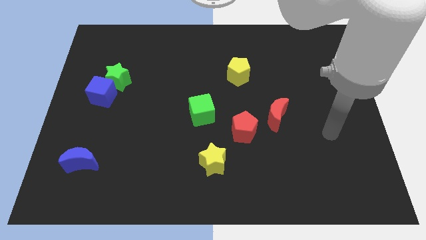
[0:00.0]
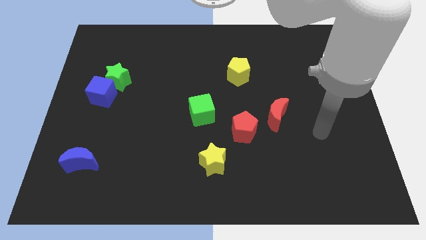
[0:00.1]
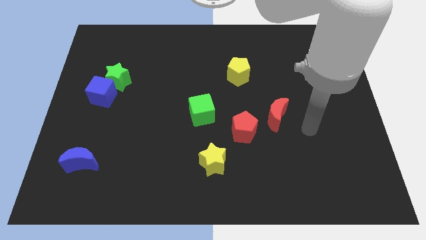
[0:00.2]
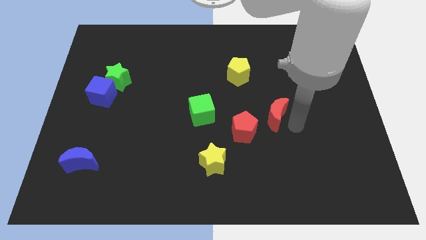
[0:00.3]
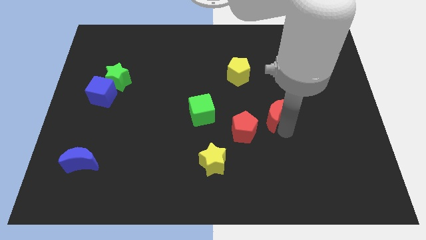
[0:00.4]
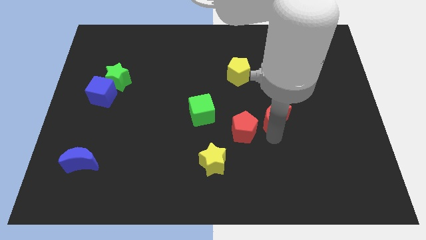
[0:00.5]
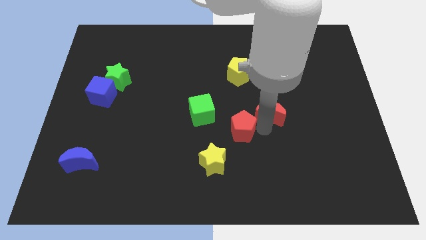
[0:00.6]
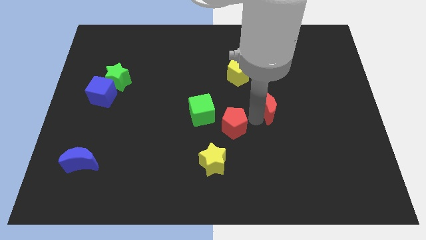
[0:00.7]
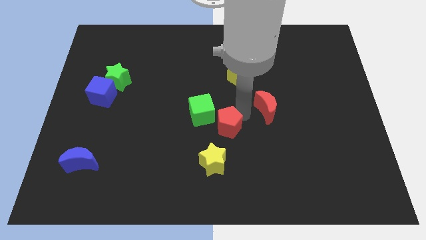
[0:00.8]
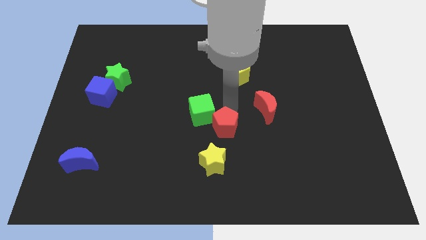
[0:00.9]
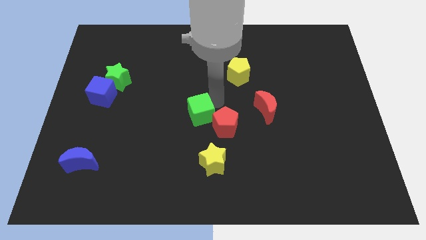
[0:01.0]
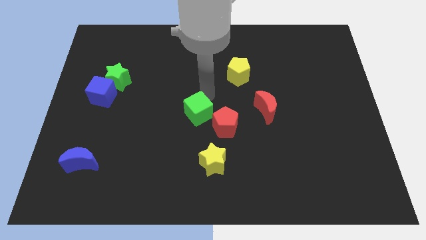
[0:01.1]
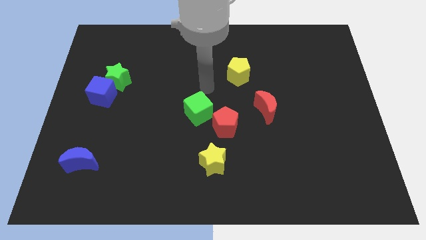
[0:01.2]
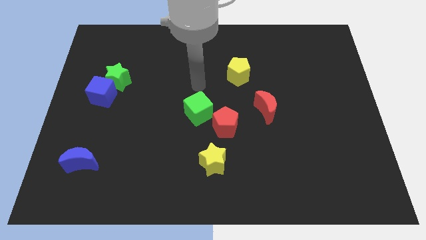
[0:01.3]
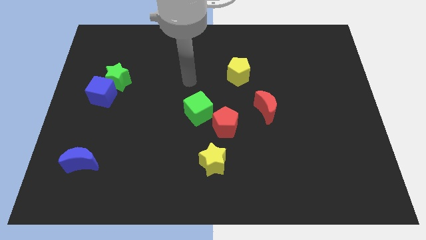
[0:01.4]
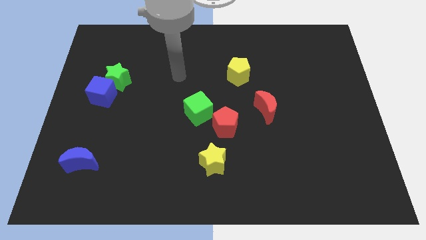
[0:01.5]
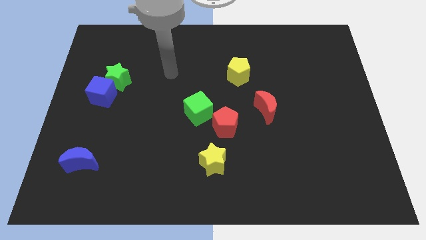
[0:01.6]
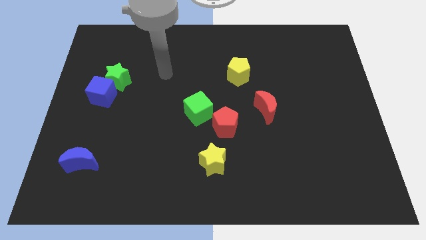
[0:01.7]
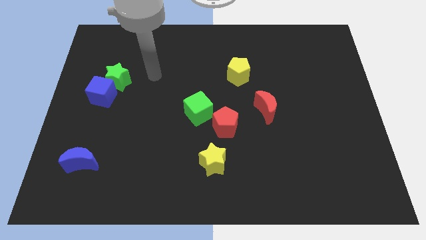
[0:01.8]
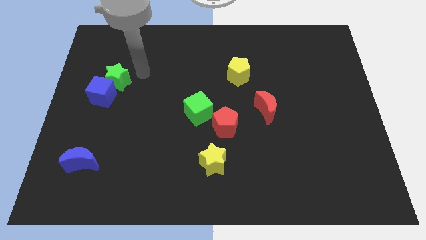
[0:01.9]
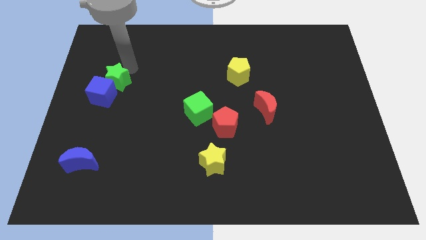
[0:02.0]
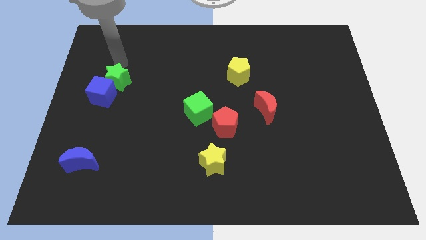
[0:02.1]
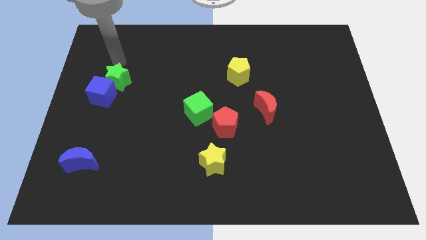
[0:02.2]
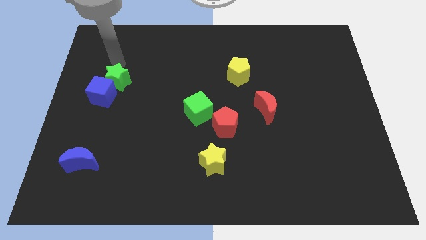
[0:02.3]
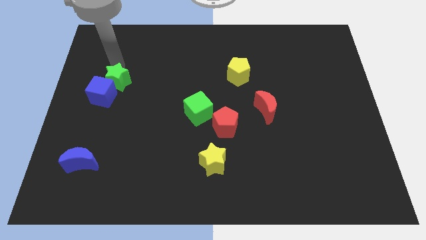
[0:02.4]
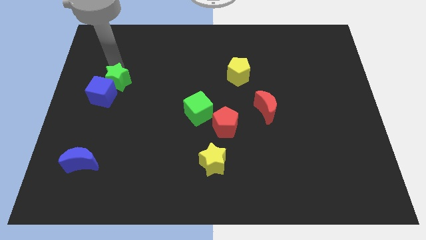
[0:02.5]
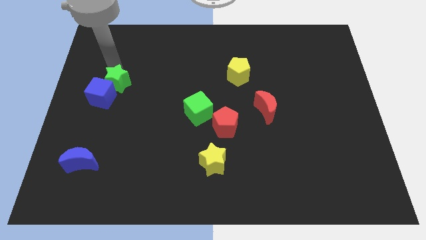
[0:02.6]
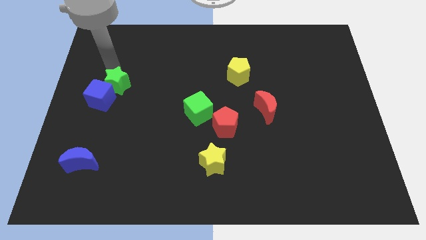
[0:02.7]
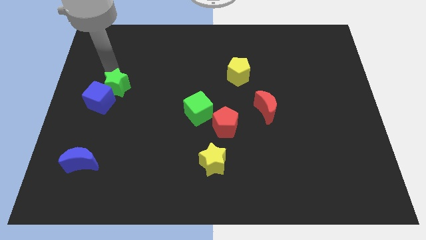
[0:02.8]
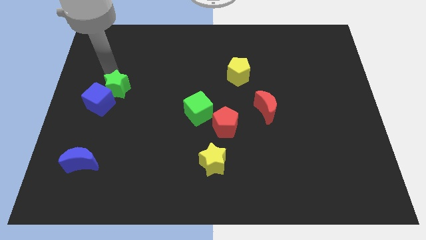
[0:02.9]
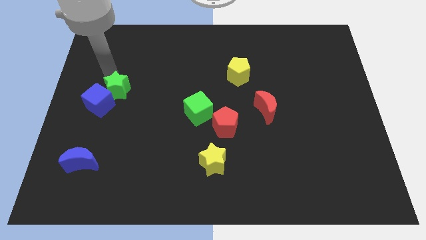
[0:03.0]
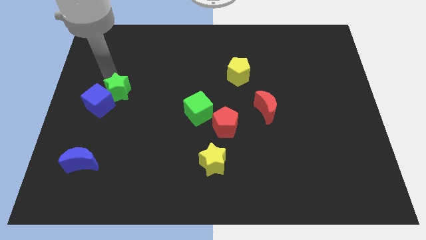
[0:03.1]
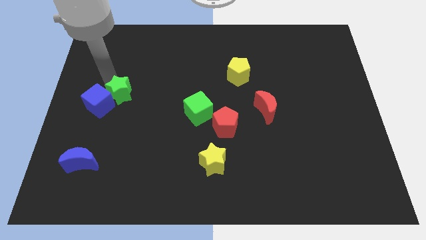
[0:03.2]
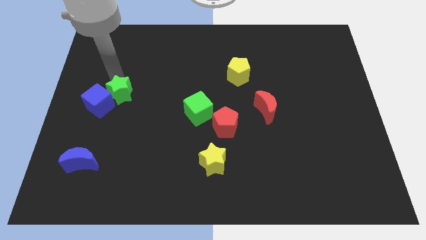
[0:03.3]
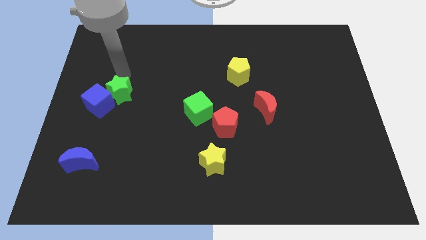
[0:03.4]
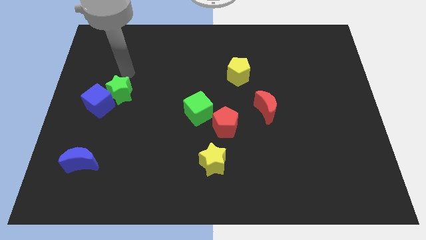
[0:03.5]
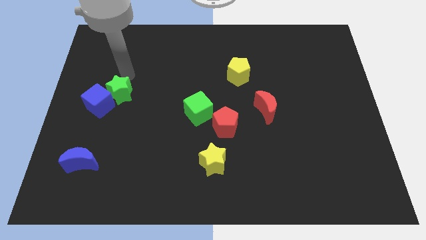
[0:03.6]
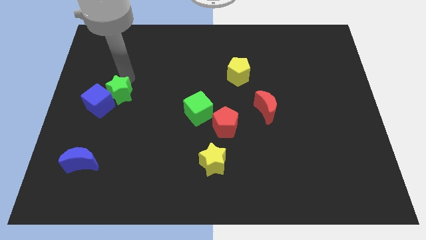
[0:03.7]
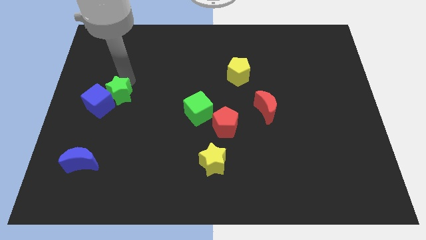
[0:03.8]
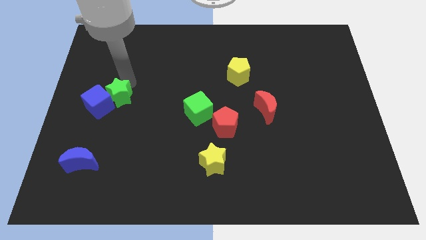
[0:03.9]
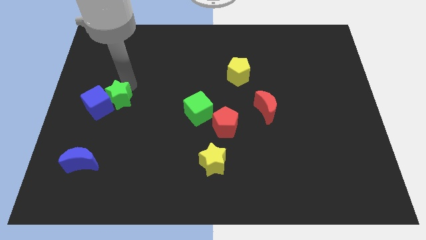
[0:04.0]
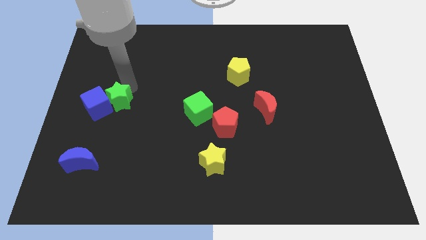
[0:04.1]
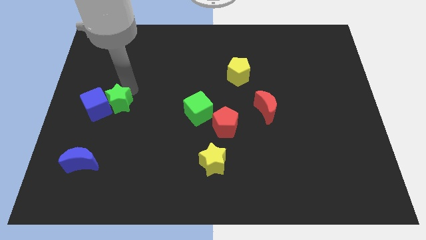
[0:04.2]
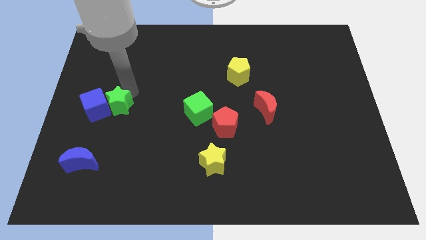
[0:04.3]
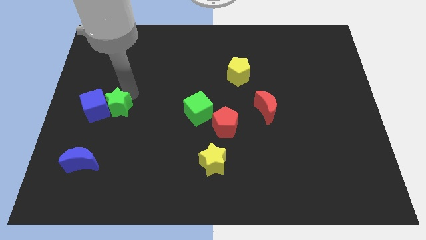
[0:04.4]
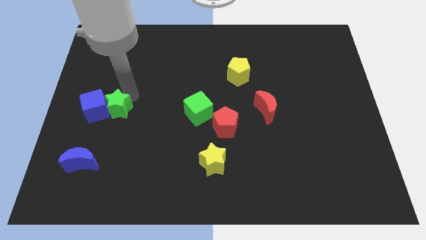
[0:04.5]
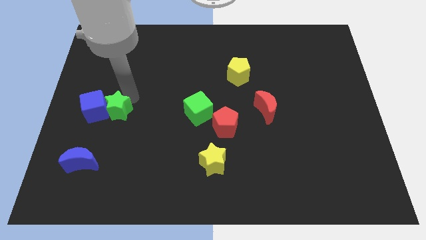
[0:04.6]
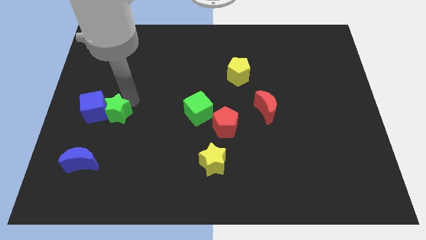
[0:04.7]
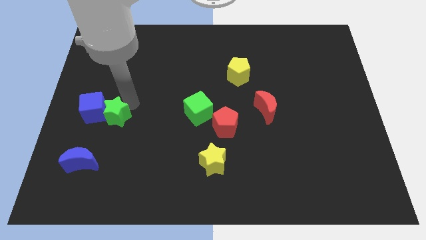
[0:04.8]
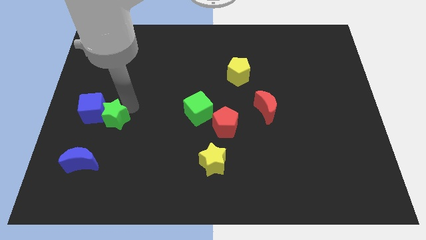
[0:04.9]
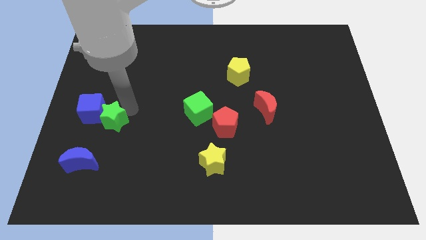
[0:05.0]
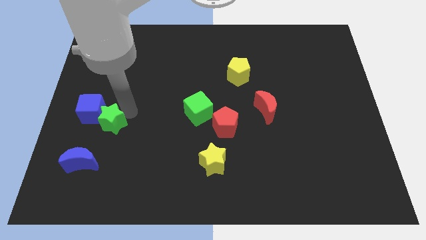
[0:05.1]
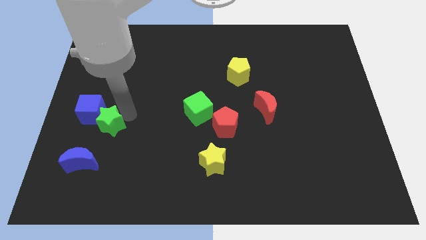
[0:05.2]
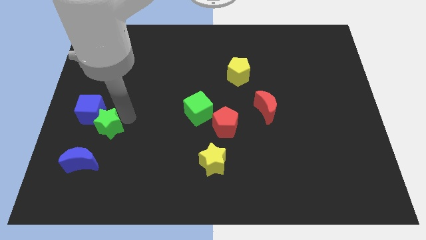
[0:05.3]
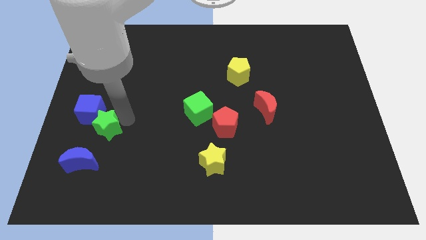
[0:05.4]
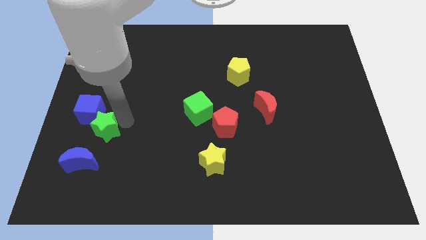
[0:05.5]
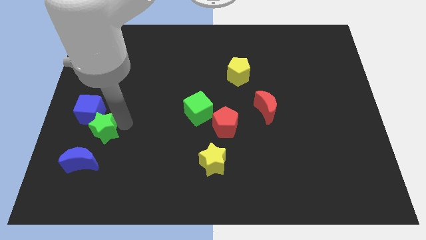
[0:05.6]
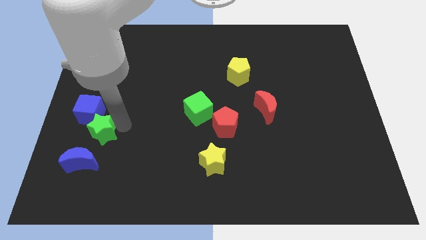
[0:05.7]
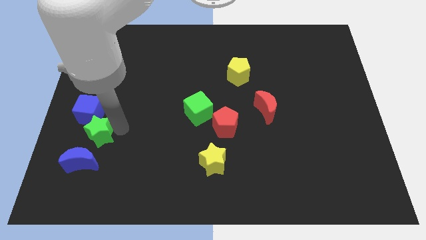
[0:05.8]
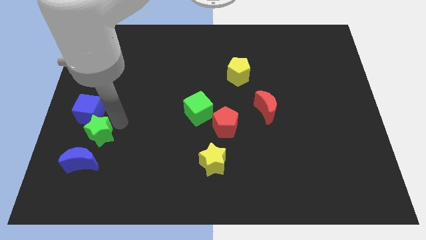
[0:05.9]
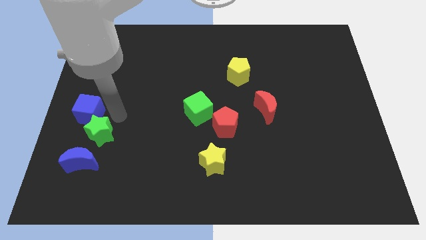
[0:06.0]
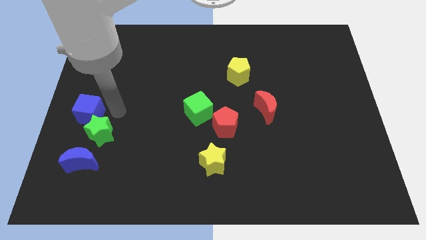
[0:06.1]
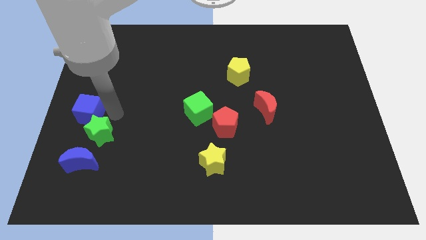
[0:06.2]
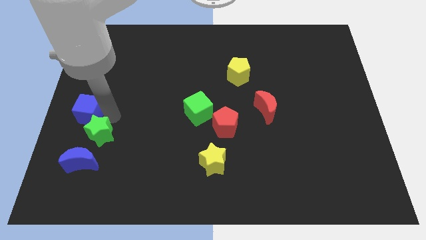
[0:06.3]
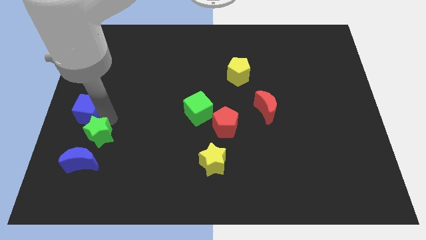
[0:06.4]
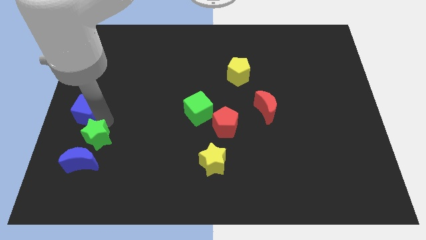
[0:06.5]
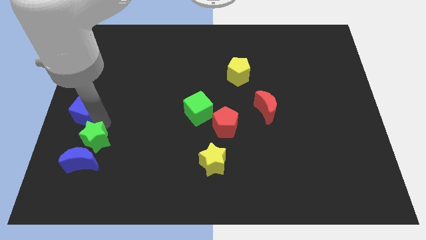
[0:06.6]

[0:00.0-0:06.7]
slide the green star towards the blue moon
